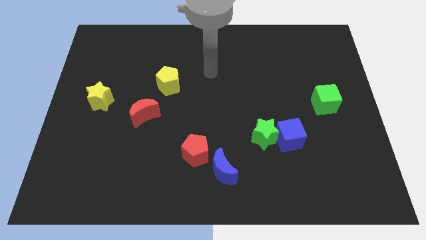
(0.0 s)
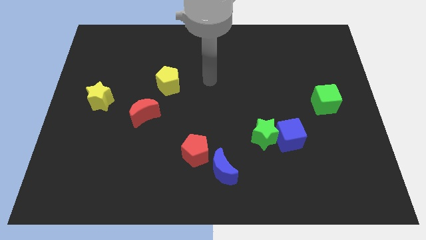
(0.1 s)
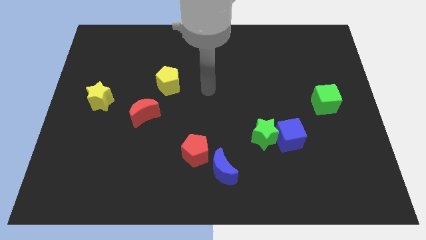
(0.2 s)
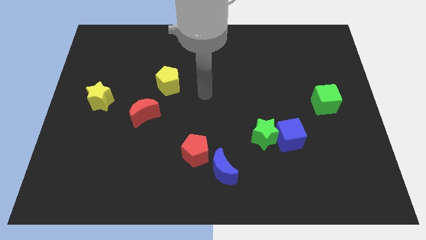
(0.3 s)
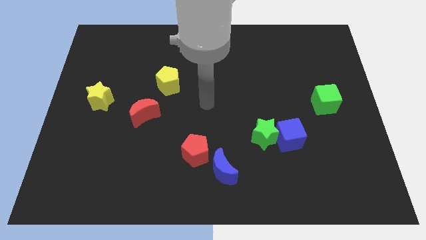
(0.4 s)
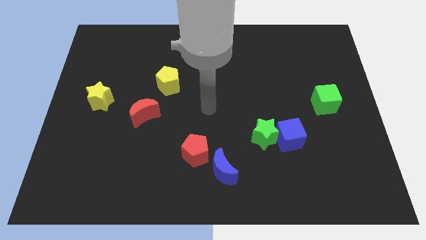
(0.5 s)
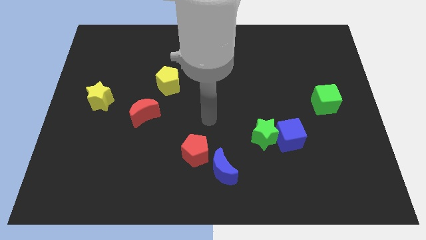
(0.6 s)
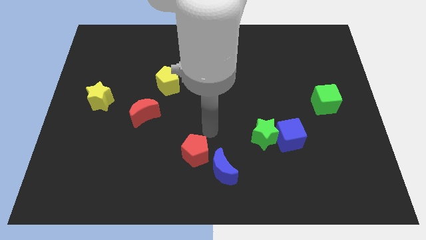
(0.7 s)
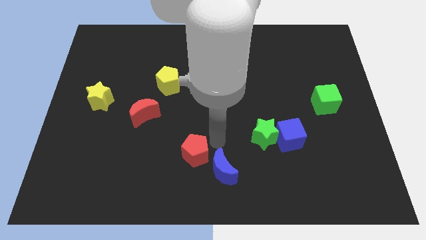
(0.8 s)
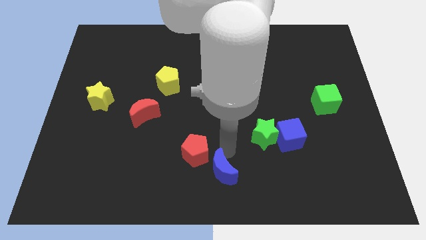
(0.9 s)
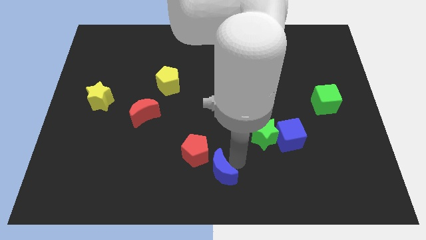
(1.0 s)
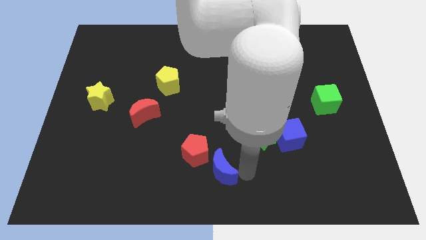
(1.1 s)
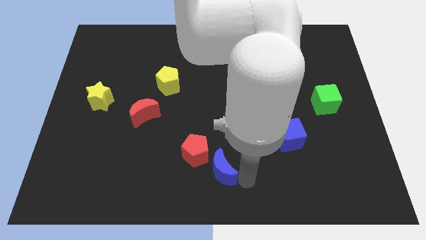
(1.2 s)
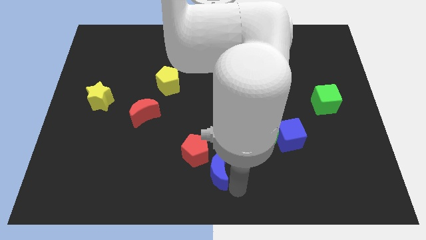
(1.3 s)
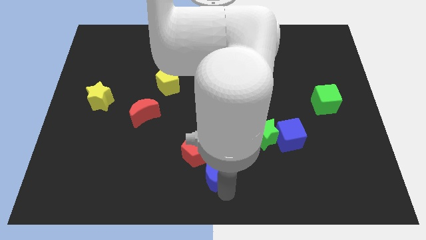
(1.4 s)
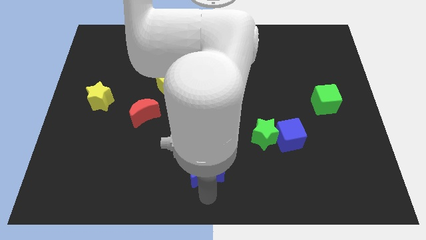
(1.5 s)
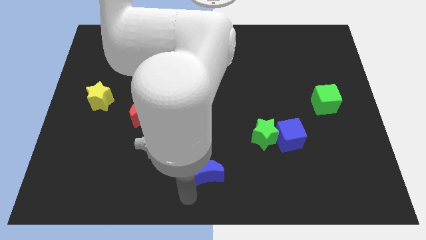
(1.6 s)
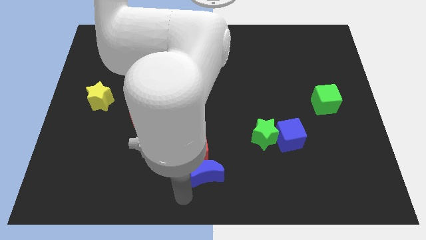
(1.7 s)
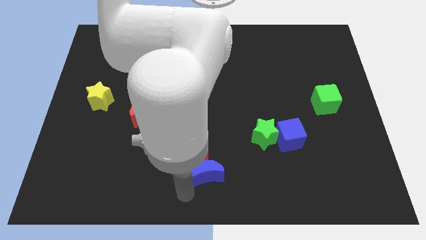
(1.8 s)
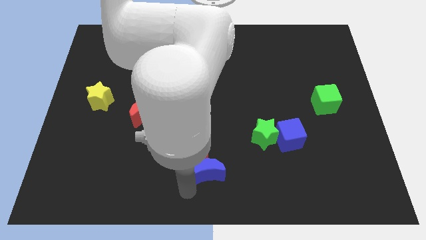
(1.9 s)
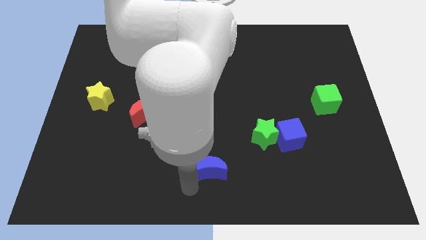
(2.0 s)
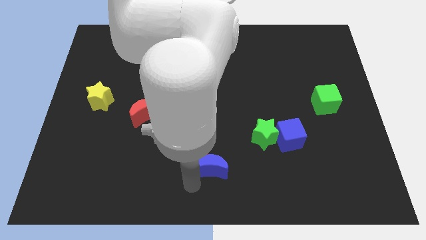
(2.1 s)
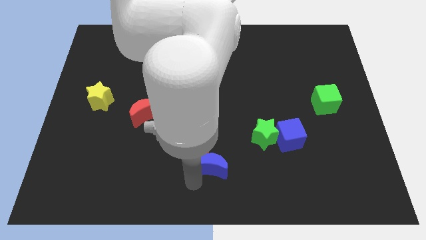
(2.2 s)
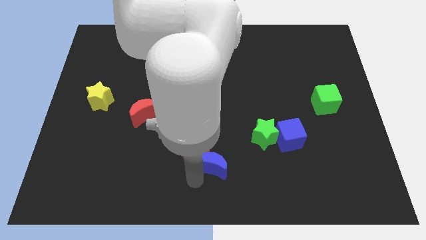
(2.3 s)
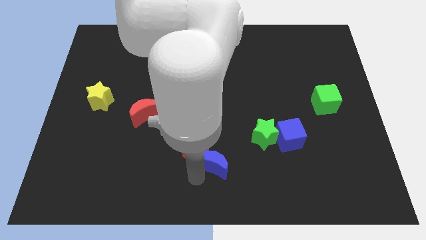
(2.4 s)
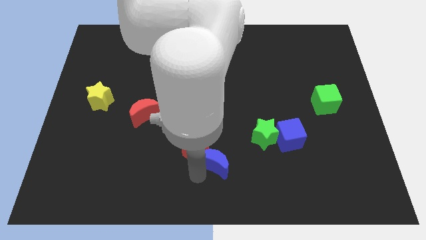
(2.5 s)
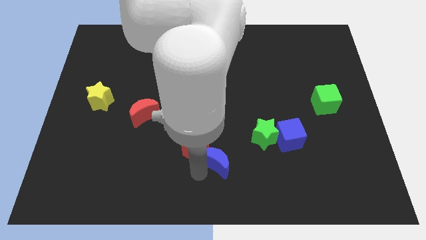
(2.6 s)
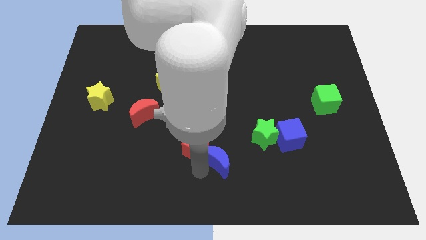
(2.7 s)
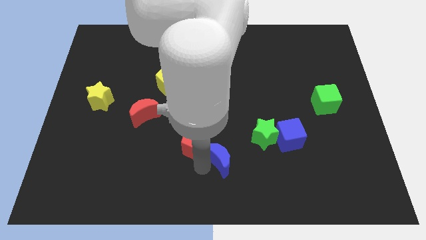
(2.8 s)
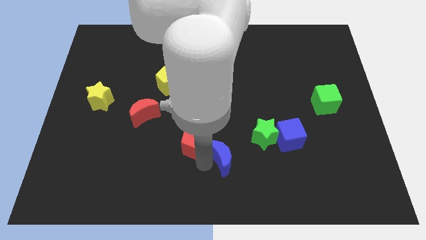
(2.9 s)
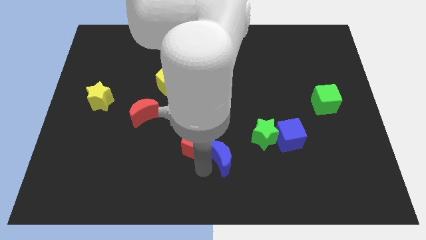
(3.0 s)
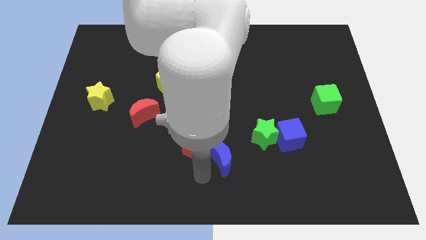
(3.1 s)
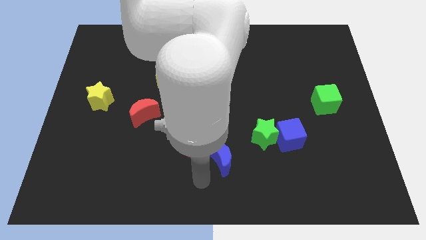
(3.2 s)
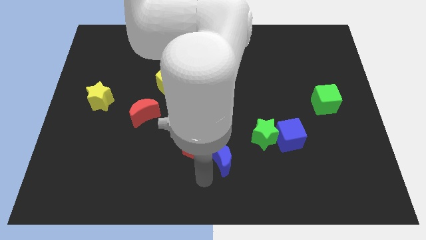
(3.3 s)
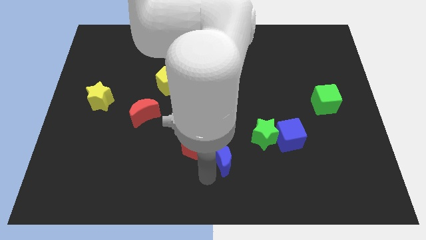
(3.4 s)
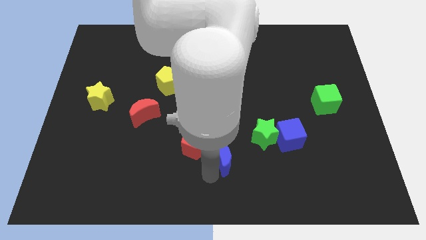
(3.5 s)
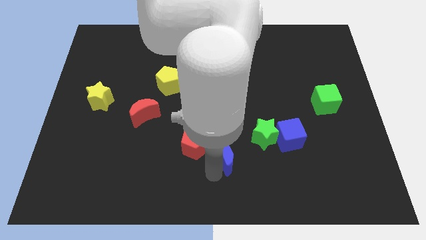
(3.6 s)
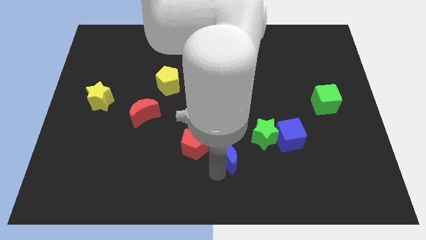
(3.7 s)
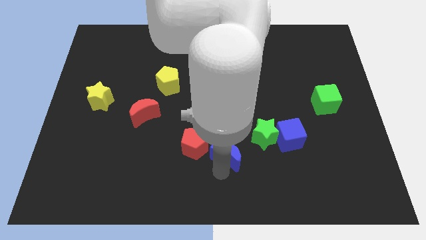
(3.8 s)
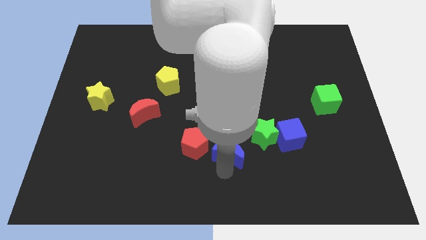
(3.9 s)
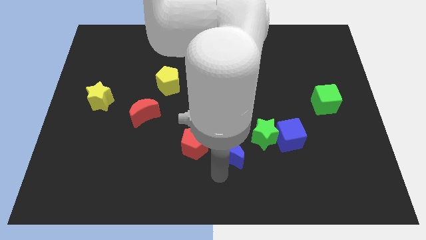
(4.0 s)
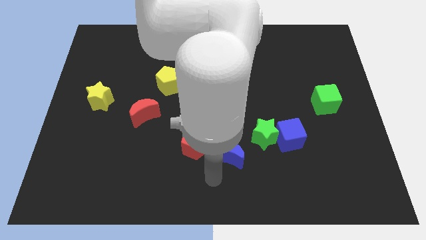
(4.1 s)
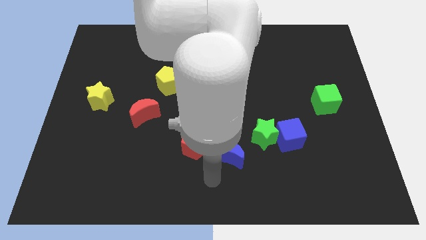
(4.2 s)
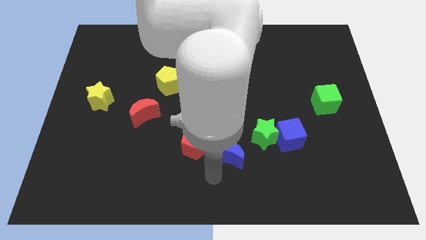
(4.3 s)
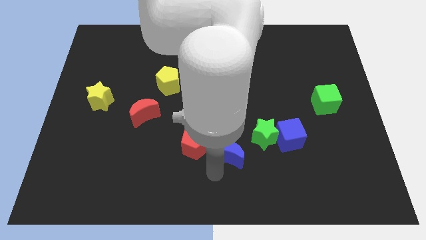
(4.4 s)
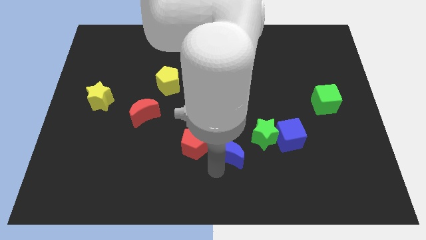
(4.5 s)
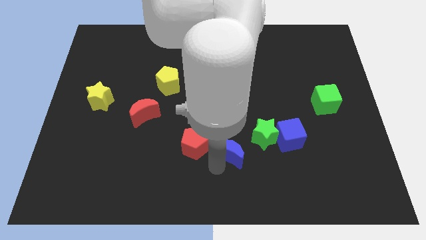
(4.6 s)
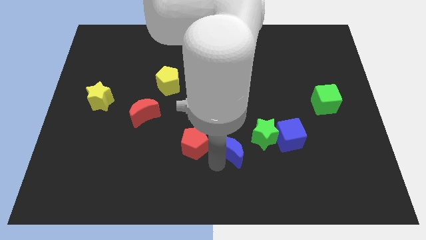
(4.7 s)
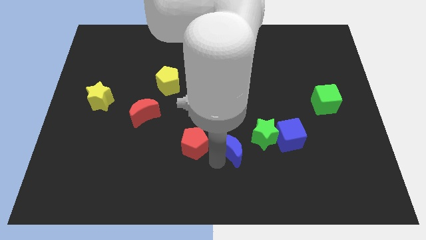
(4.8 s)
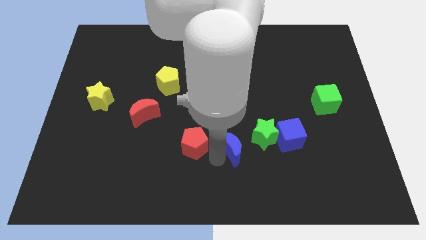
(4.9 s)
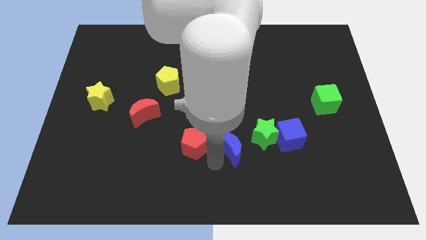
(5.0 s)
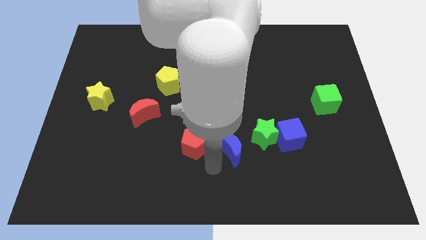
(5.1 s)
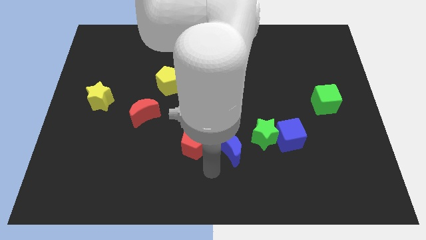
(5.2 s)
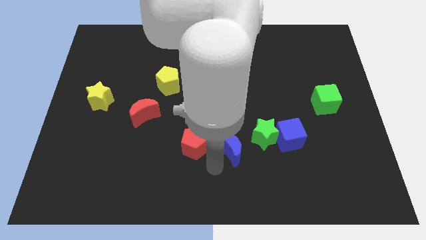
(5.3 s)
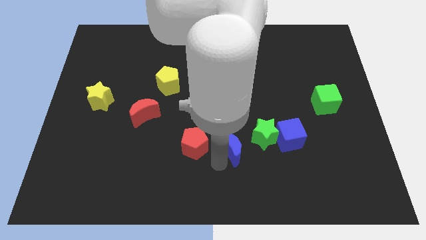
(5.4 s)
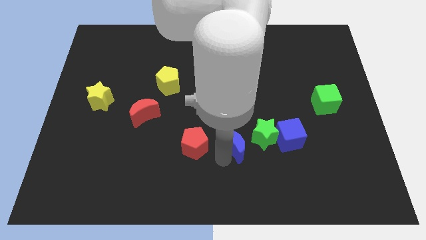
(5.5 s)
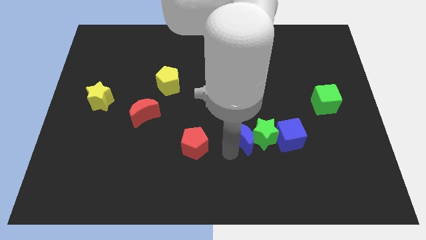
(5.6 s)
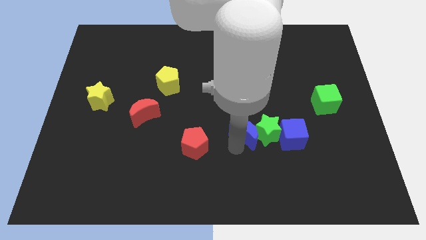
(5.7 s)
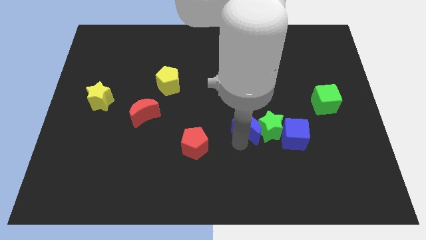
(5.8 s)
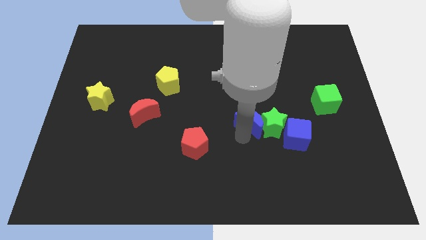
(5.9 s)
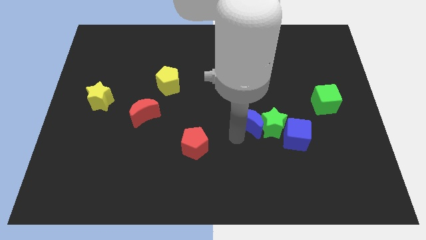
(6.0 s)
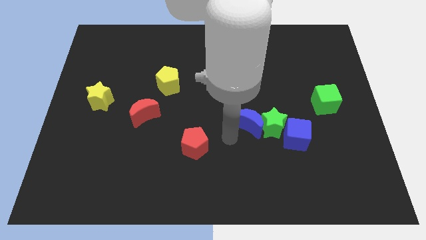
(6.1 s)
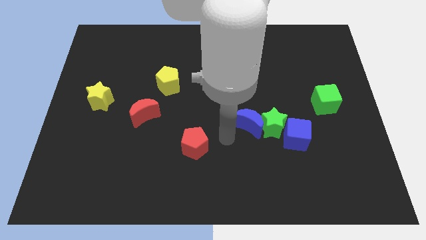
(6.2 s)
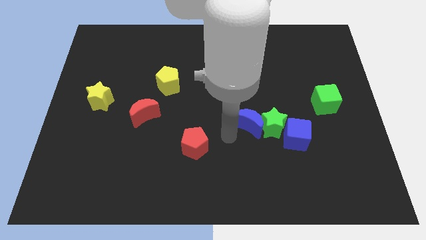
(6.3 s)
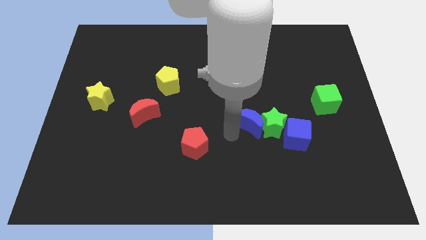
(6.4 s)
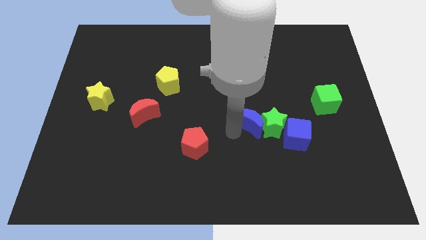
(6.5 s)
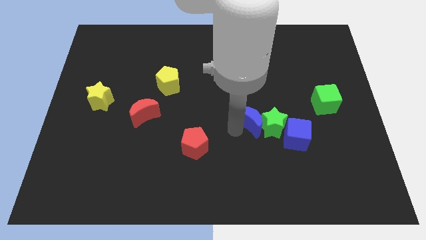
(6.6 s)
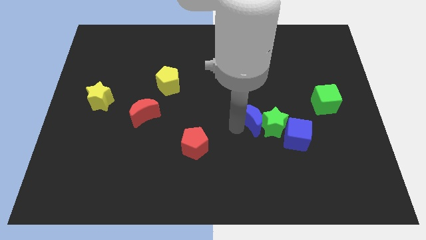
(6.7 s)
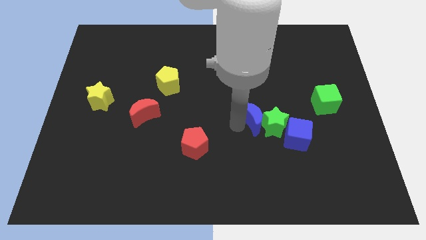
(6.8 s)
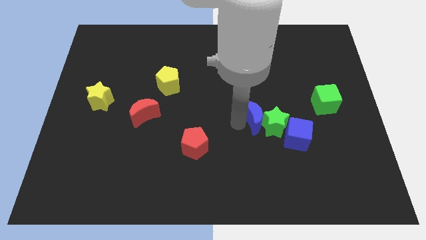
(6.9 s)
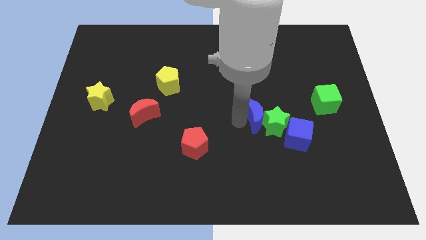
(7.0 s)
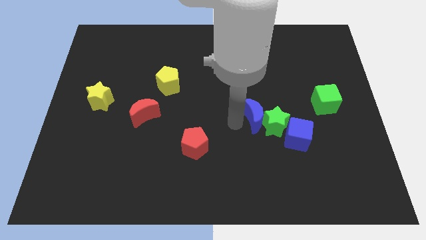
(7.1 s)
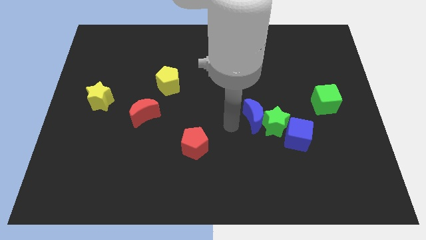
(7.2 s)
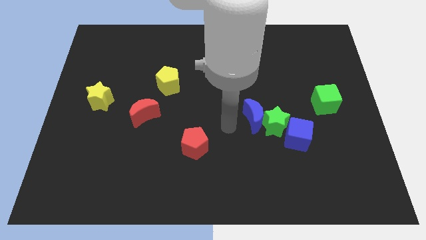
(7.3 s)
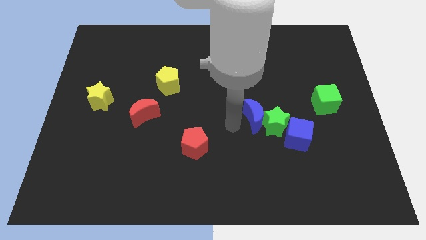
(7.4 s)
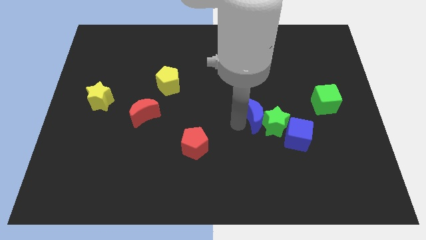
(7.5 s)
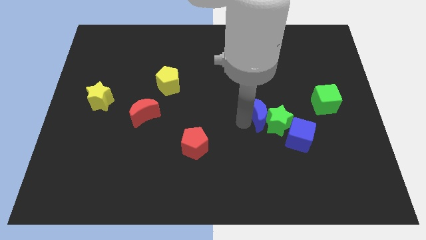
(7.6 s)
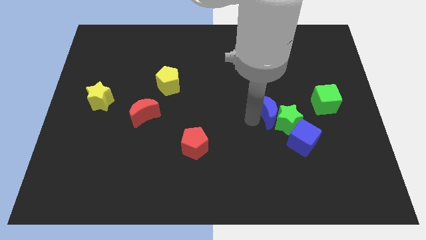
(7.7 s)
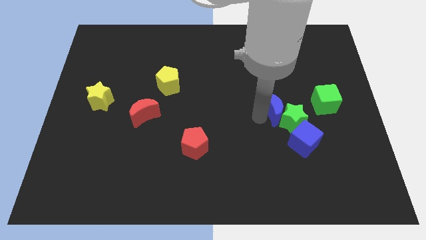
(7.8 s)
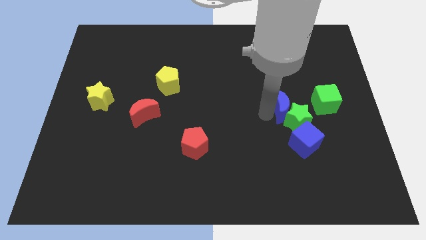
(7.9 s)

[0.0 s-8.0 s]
slide the blue moon to the top side of the blue cube
